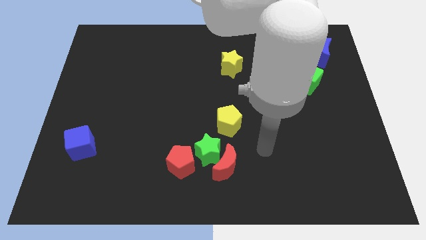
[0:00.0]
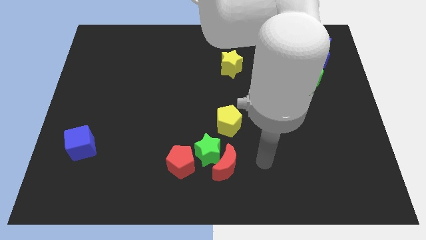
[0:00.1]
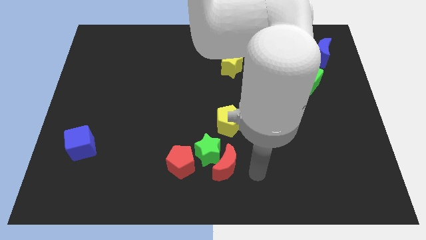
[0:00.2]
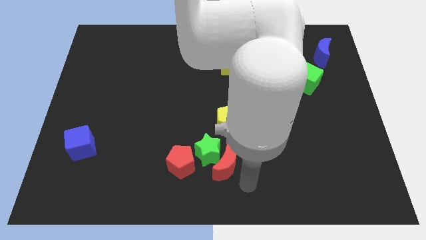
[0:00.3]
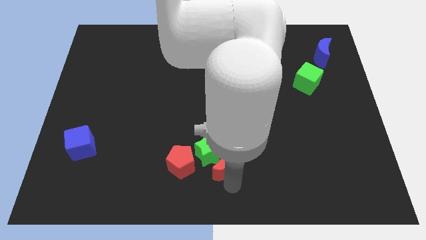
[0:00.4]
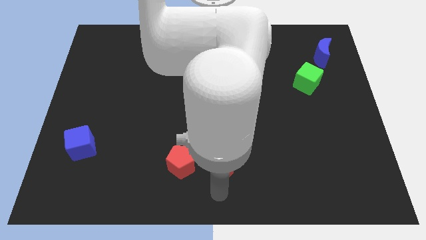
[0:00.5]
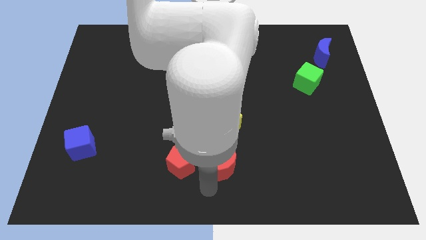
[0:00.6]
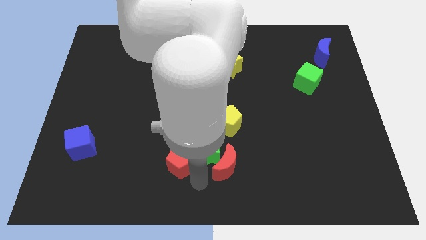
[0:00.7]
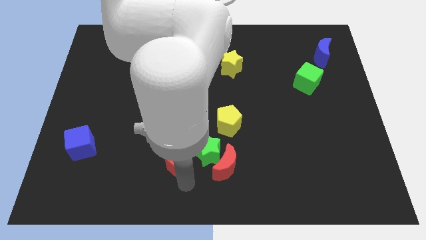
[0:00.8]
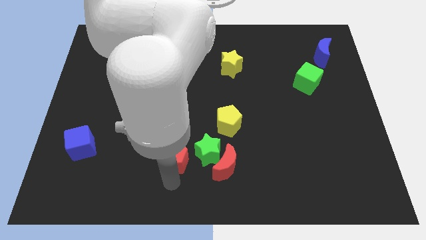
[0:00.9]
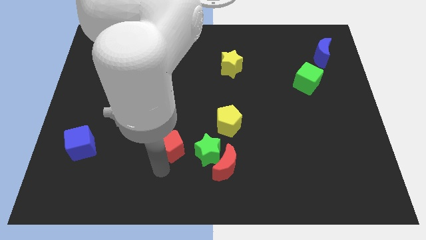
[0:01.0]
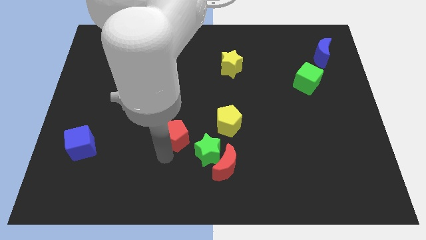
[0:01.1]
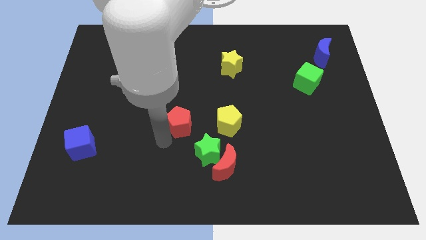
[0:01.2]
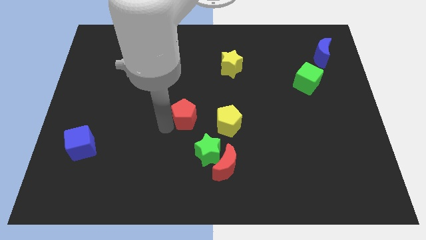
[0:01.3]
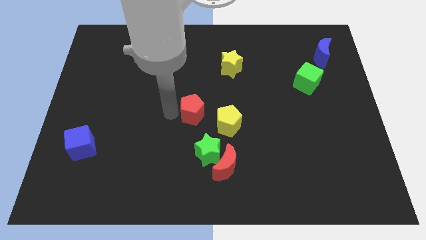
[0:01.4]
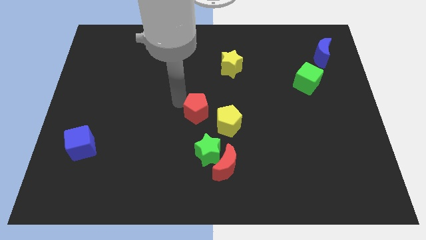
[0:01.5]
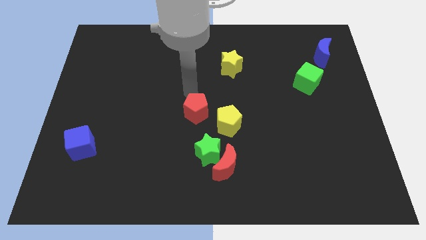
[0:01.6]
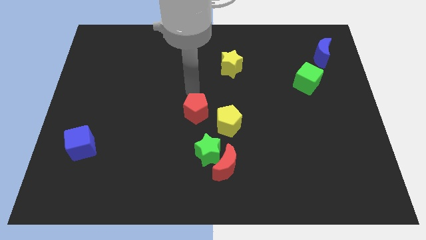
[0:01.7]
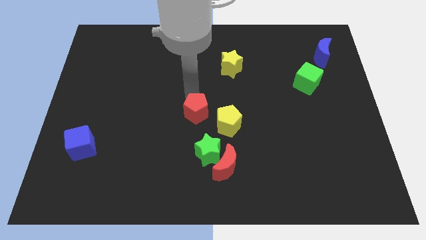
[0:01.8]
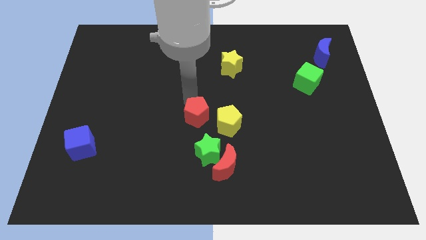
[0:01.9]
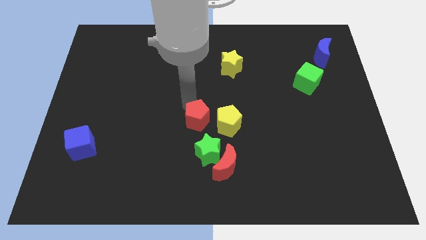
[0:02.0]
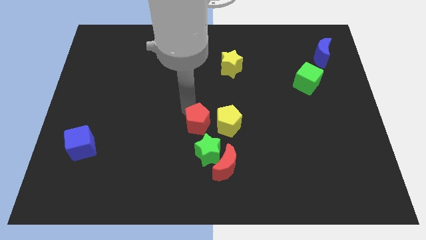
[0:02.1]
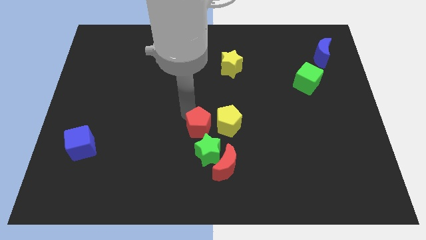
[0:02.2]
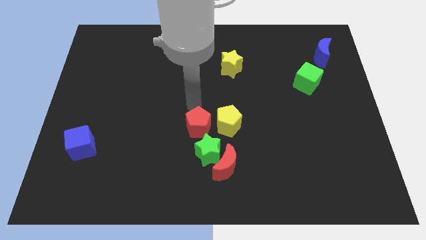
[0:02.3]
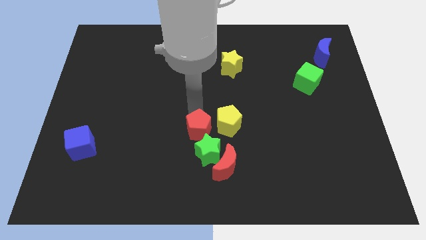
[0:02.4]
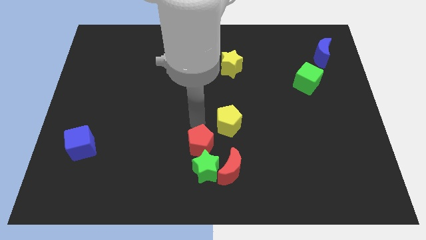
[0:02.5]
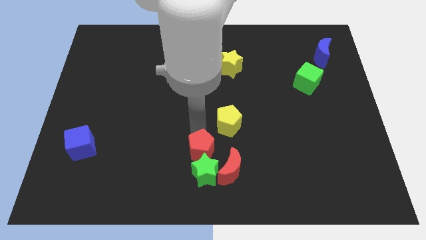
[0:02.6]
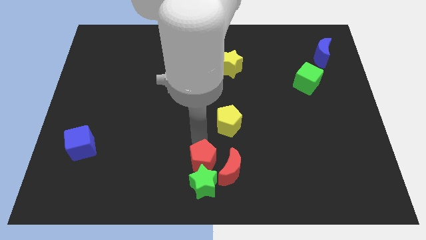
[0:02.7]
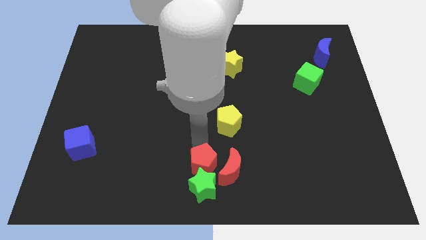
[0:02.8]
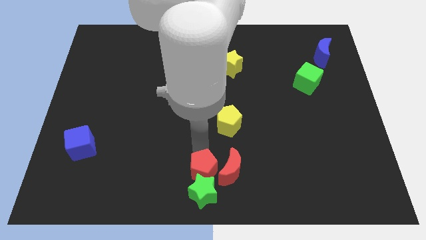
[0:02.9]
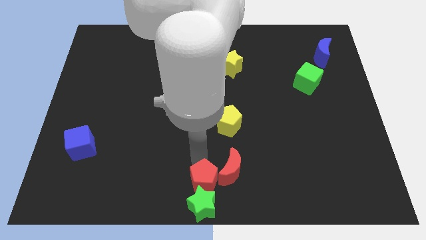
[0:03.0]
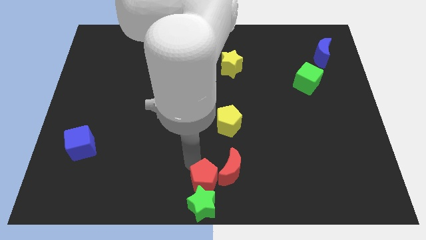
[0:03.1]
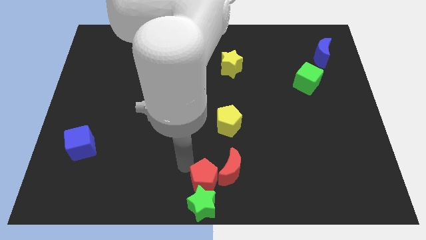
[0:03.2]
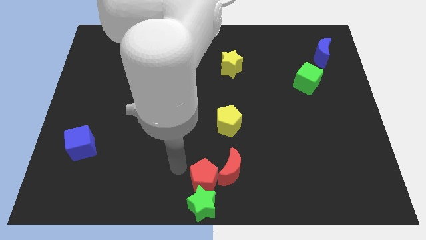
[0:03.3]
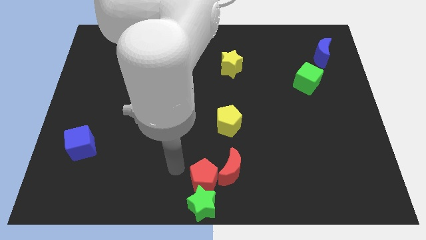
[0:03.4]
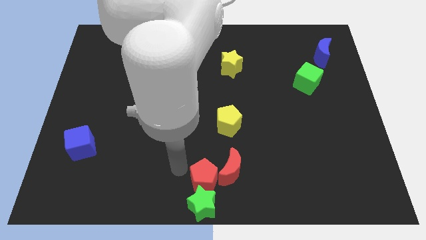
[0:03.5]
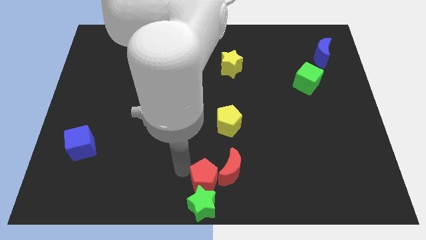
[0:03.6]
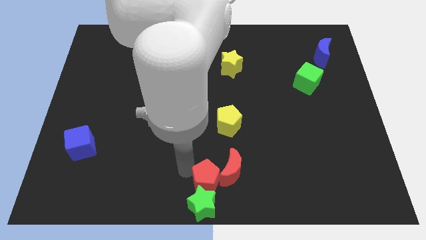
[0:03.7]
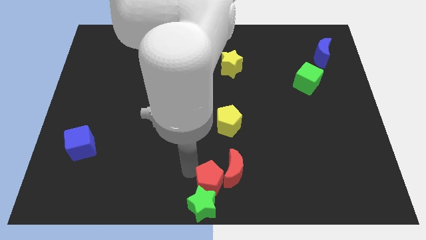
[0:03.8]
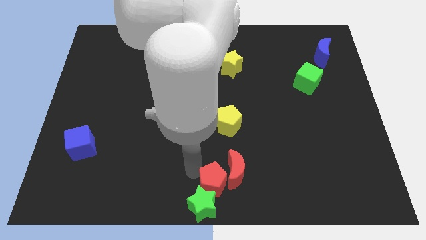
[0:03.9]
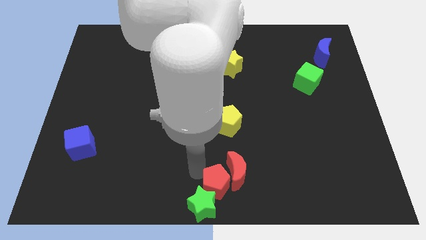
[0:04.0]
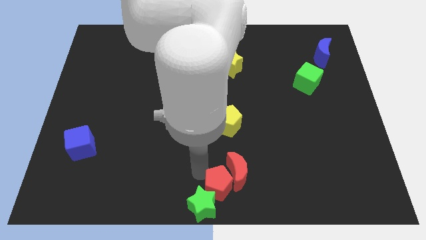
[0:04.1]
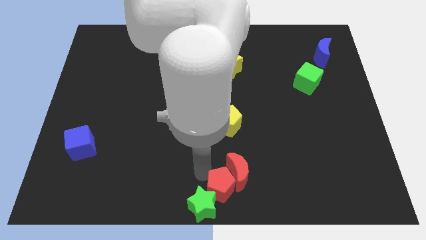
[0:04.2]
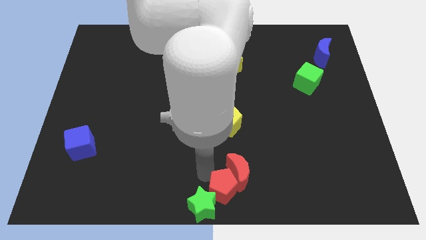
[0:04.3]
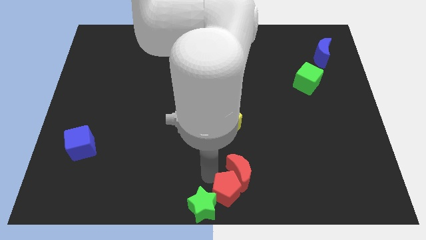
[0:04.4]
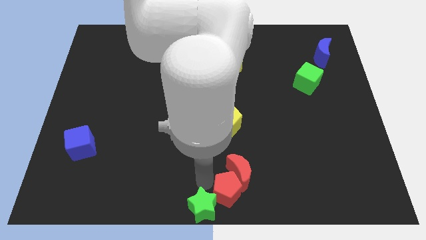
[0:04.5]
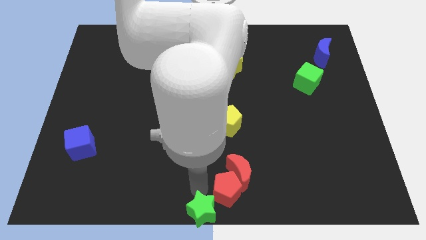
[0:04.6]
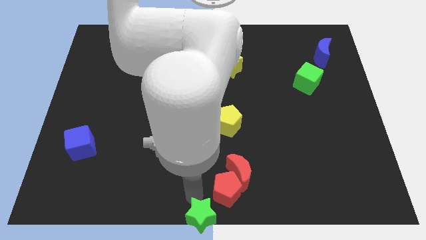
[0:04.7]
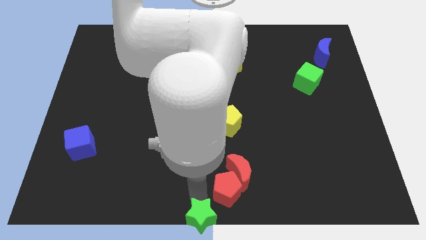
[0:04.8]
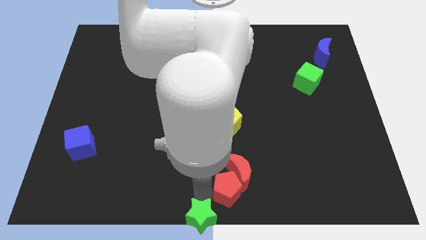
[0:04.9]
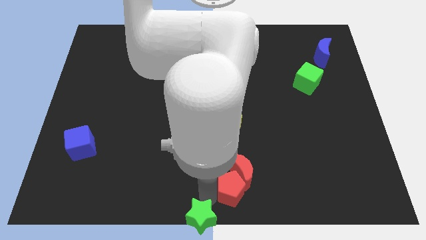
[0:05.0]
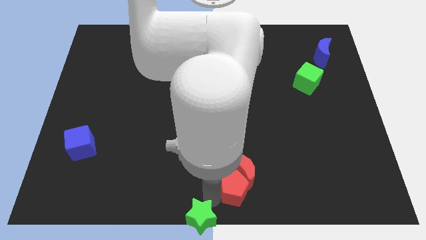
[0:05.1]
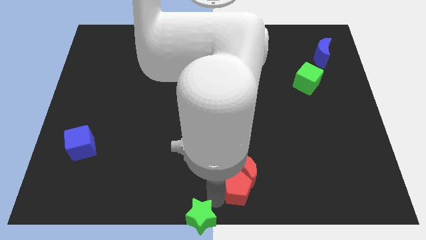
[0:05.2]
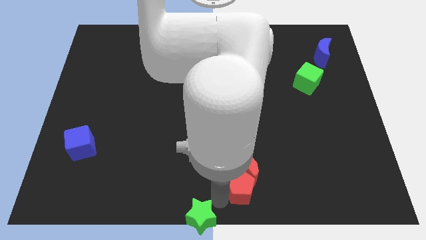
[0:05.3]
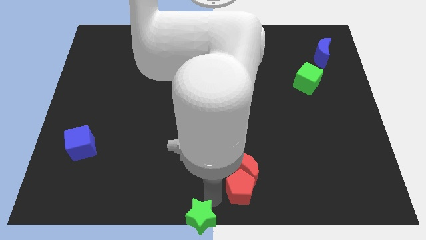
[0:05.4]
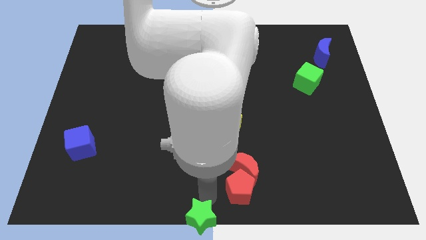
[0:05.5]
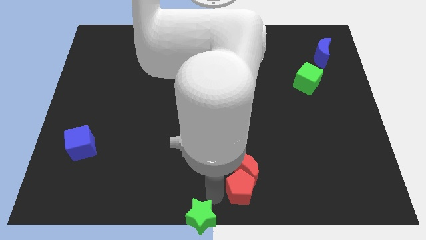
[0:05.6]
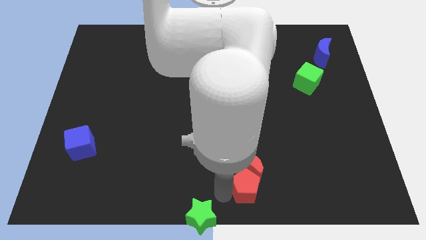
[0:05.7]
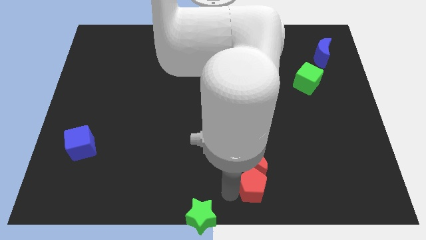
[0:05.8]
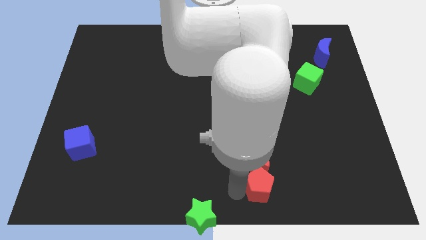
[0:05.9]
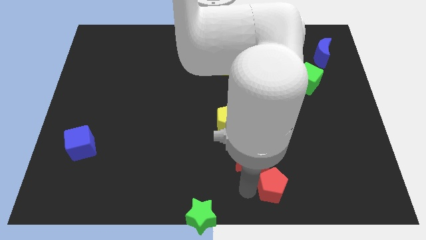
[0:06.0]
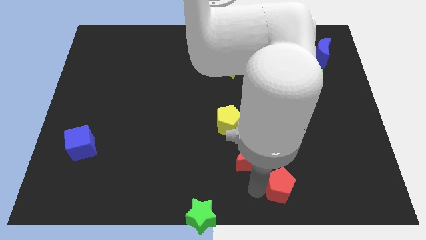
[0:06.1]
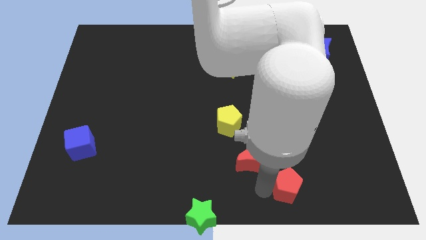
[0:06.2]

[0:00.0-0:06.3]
move the red pentagon to the right

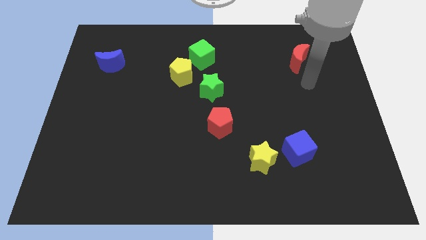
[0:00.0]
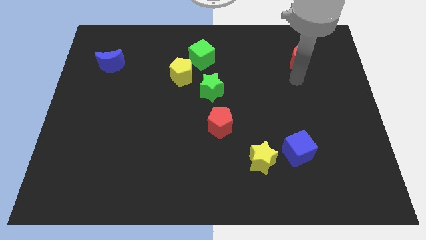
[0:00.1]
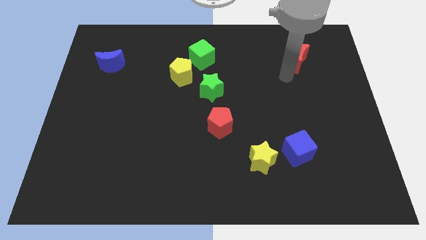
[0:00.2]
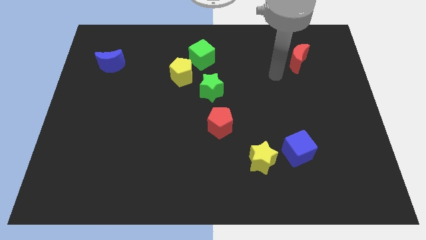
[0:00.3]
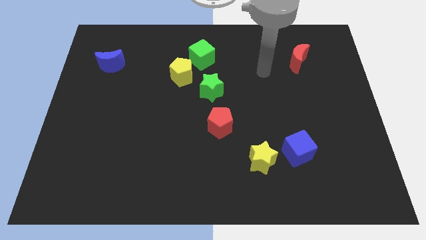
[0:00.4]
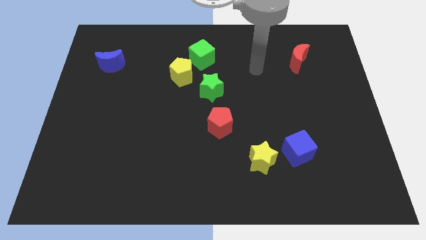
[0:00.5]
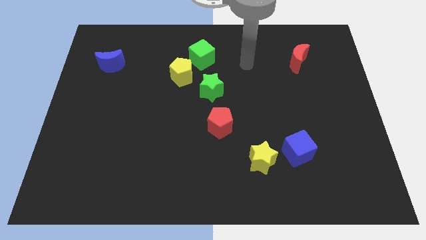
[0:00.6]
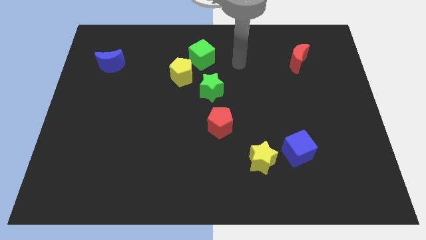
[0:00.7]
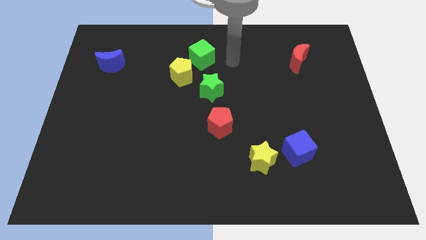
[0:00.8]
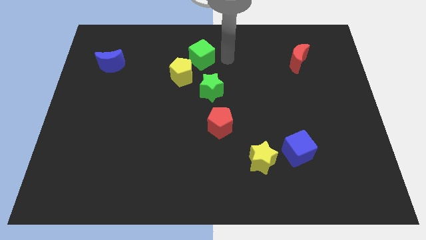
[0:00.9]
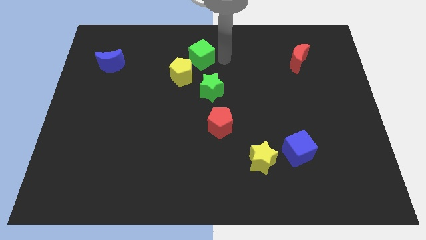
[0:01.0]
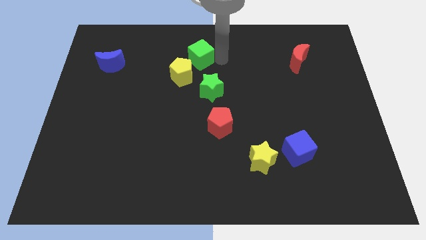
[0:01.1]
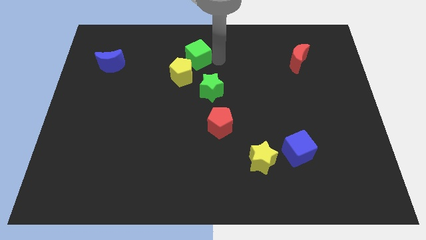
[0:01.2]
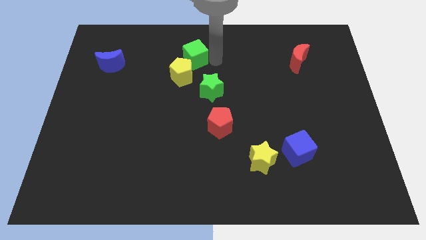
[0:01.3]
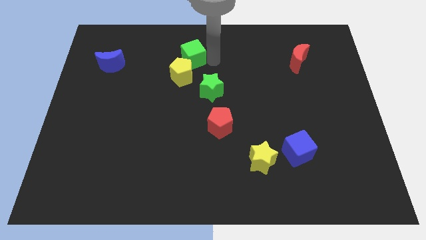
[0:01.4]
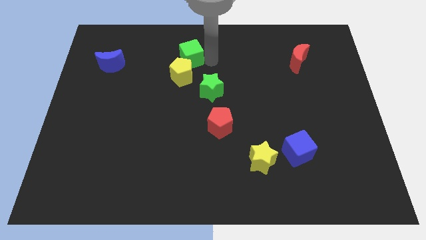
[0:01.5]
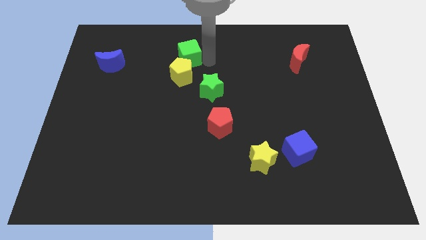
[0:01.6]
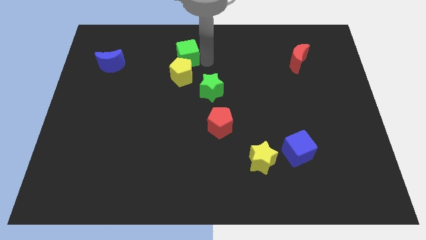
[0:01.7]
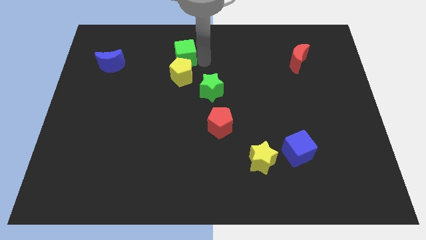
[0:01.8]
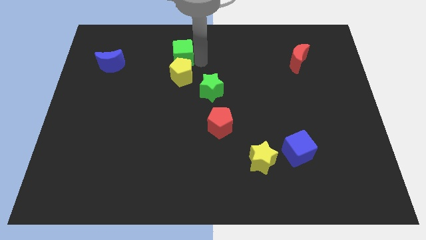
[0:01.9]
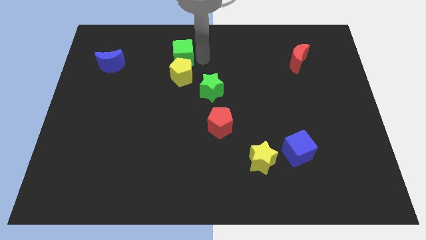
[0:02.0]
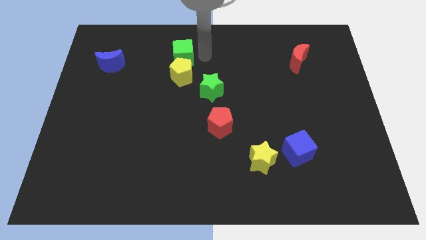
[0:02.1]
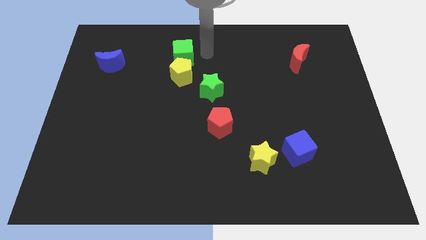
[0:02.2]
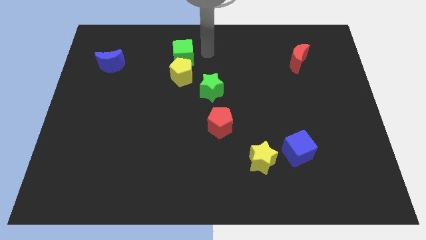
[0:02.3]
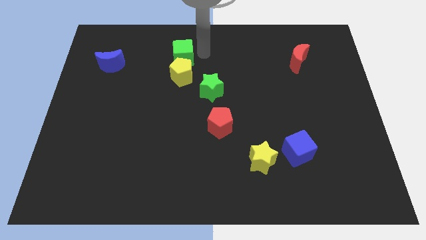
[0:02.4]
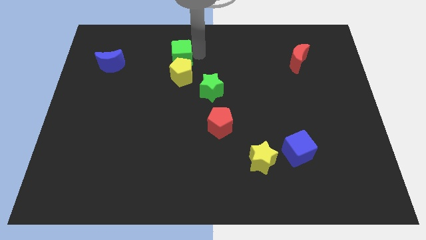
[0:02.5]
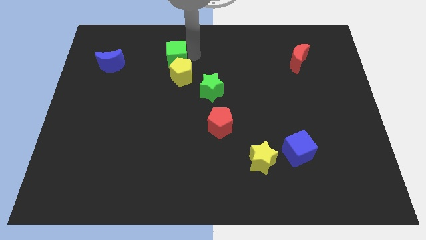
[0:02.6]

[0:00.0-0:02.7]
slightly slide the green cube to the left
